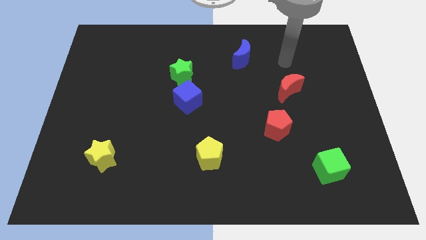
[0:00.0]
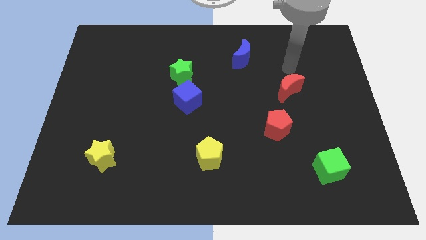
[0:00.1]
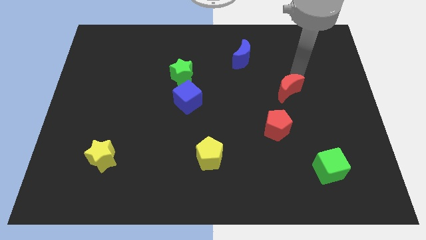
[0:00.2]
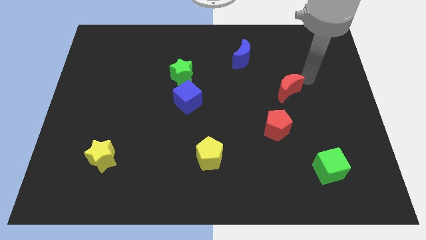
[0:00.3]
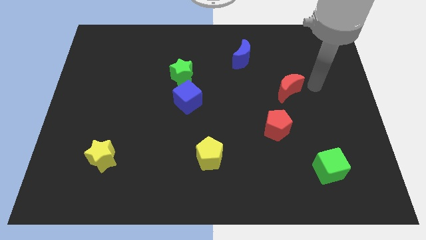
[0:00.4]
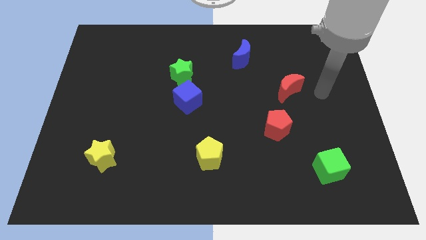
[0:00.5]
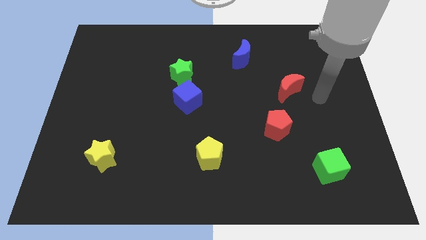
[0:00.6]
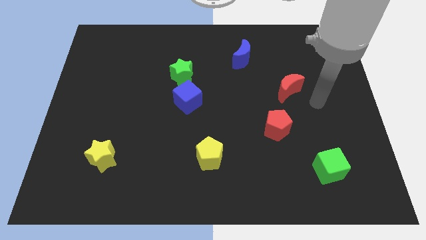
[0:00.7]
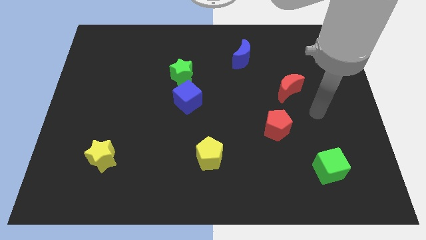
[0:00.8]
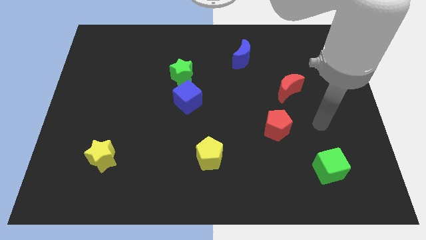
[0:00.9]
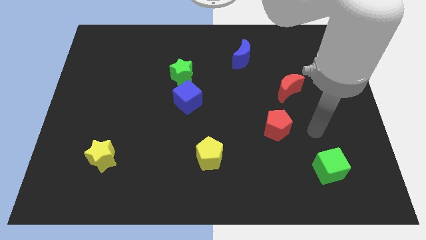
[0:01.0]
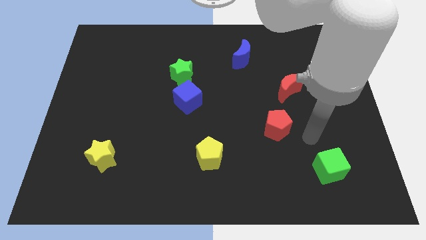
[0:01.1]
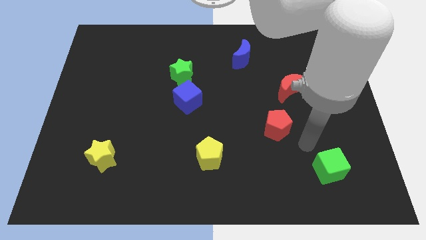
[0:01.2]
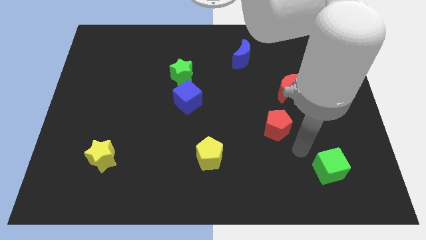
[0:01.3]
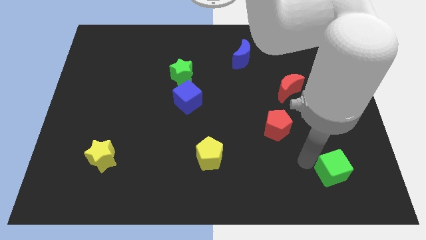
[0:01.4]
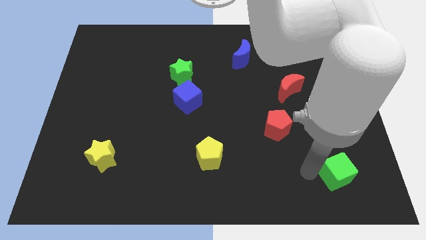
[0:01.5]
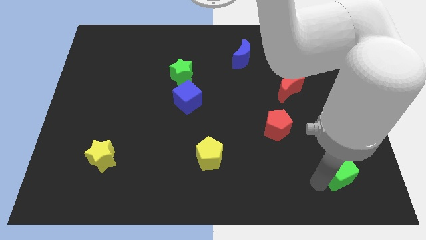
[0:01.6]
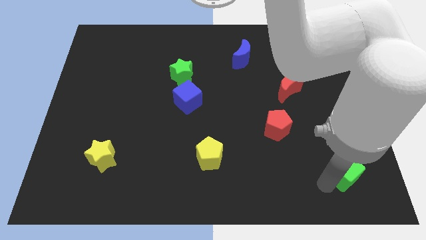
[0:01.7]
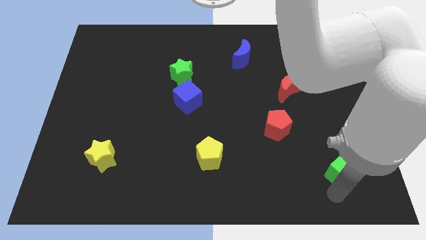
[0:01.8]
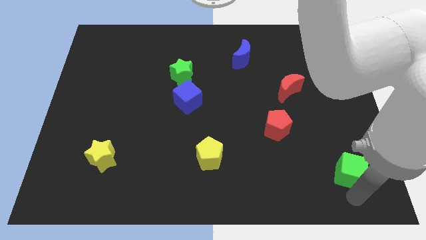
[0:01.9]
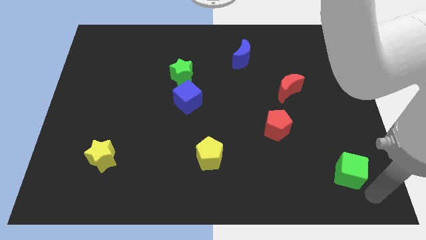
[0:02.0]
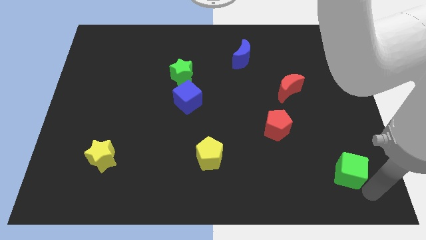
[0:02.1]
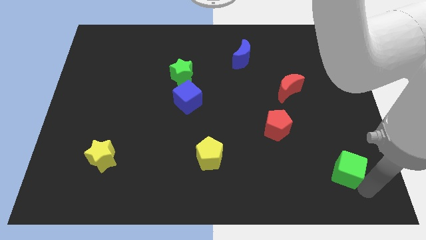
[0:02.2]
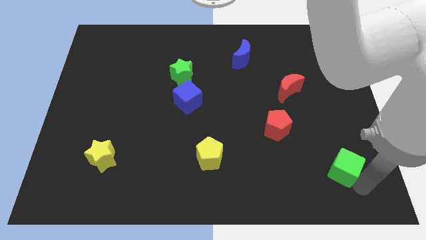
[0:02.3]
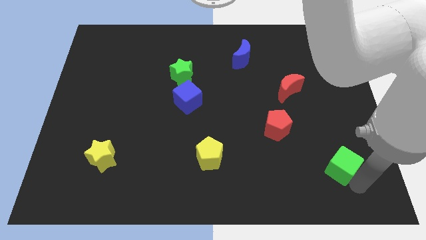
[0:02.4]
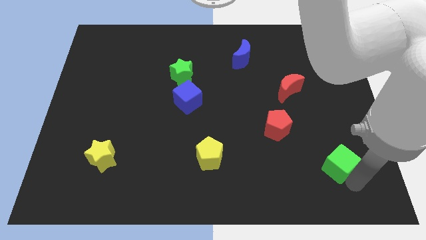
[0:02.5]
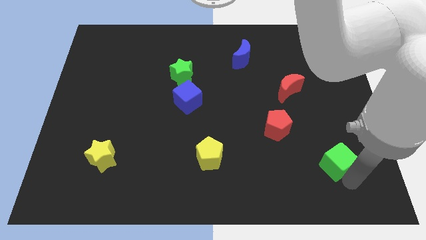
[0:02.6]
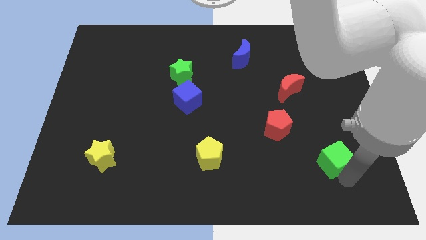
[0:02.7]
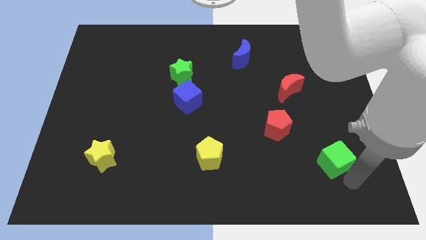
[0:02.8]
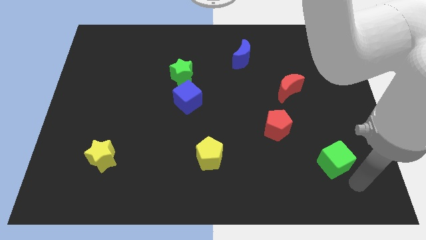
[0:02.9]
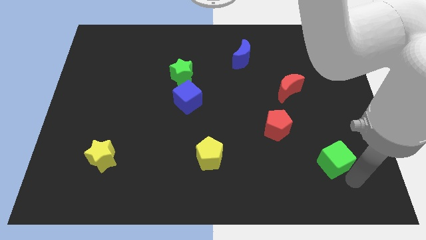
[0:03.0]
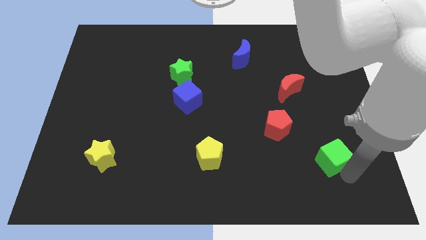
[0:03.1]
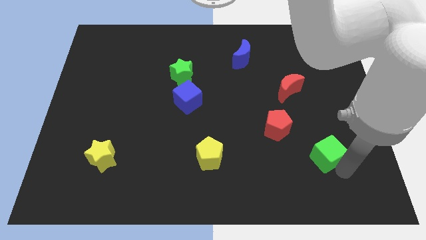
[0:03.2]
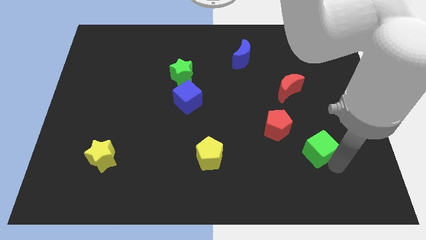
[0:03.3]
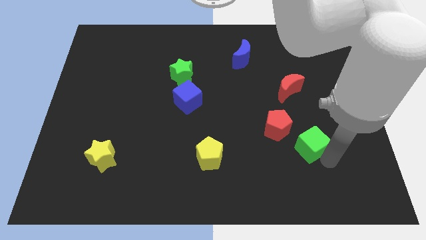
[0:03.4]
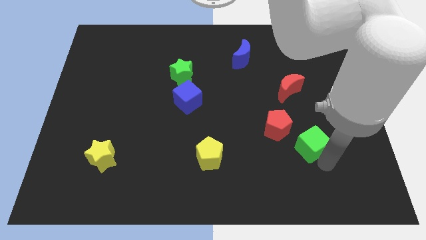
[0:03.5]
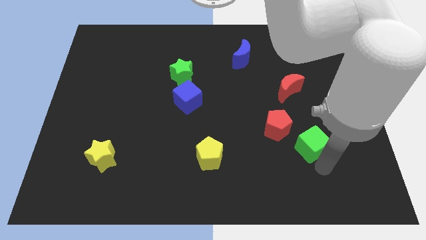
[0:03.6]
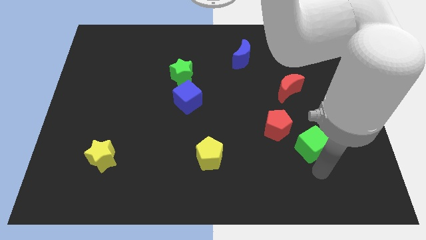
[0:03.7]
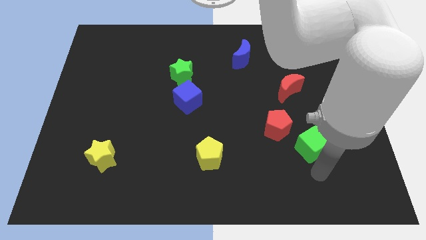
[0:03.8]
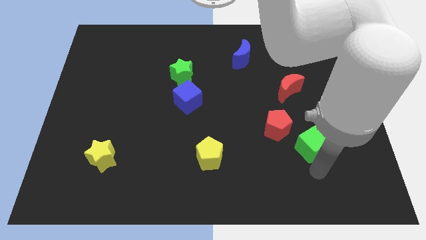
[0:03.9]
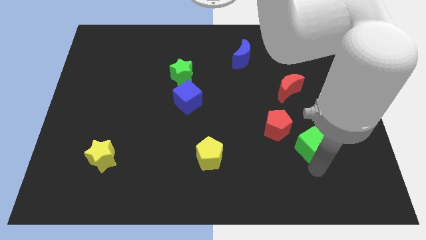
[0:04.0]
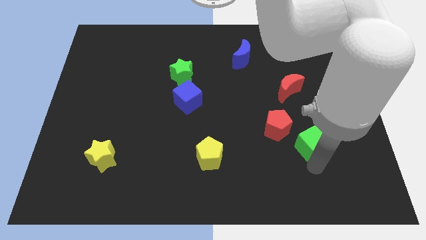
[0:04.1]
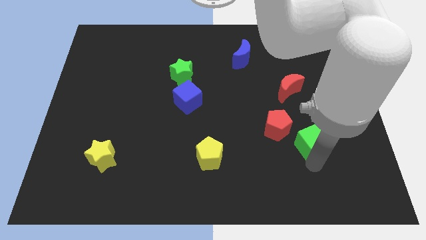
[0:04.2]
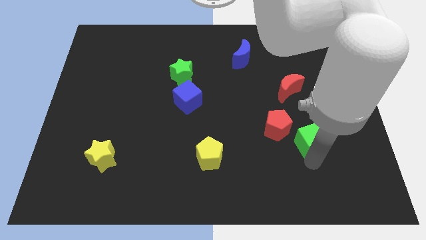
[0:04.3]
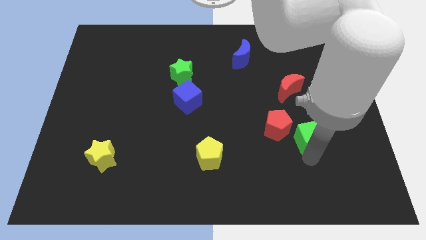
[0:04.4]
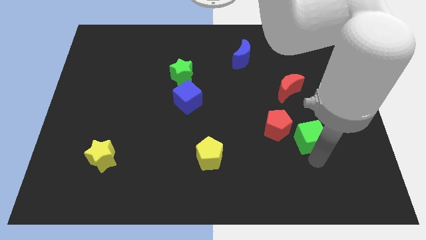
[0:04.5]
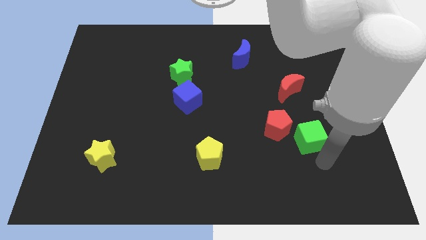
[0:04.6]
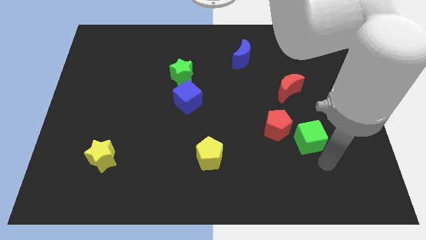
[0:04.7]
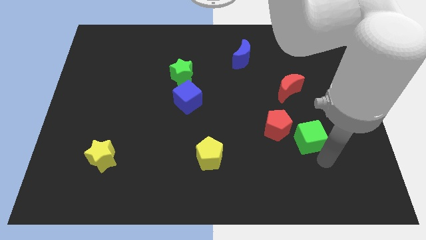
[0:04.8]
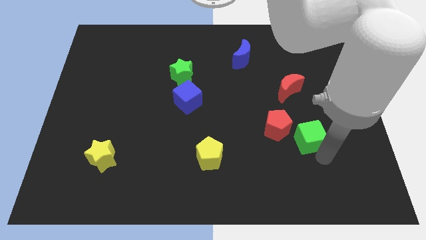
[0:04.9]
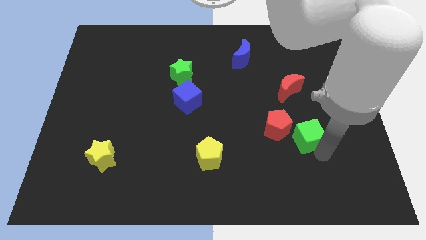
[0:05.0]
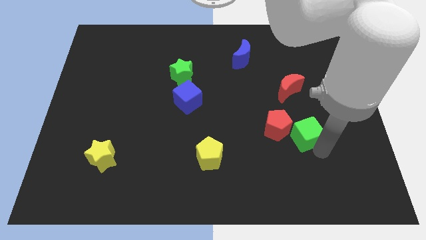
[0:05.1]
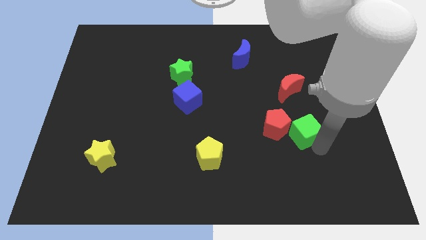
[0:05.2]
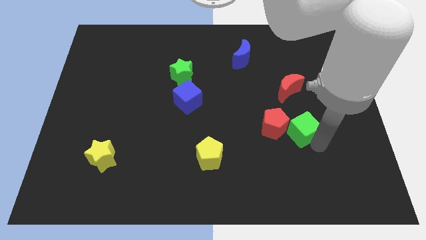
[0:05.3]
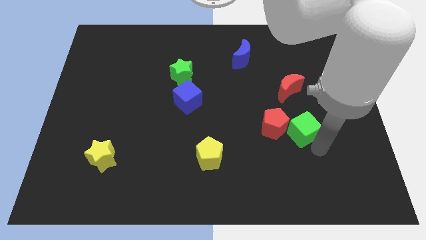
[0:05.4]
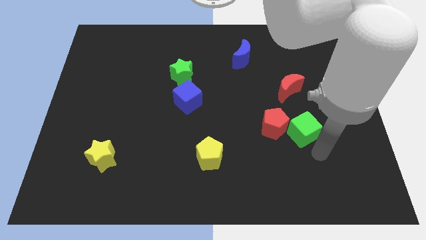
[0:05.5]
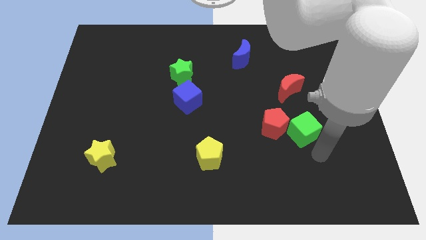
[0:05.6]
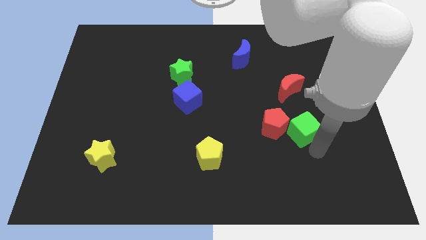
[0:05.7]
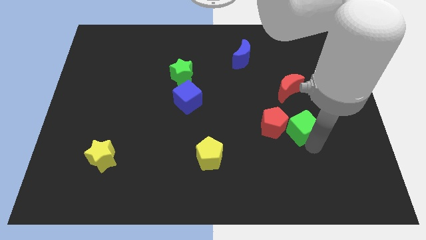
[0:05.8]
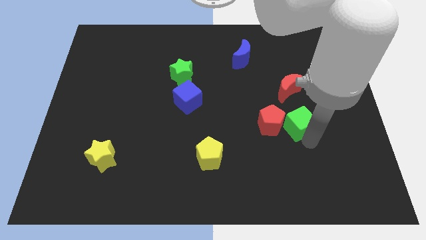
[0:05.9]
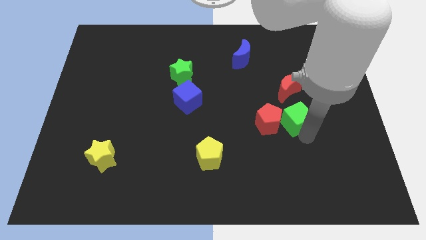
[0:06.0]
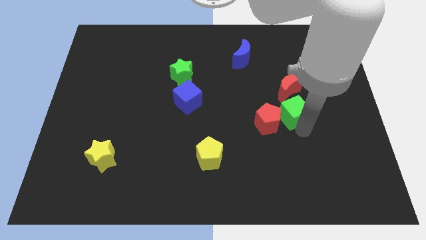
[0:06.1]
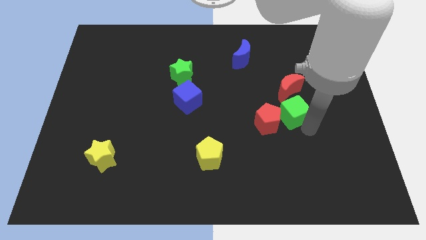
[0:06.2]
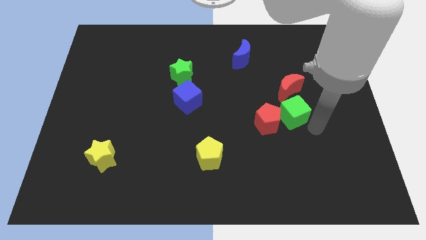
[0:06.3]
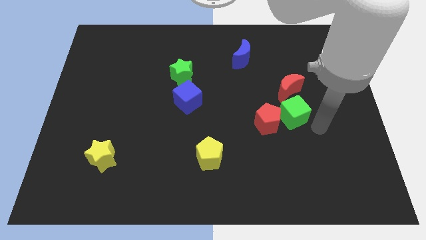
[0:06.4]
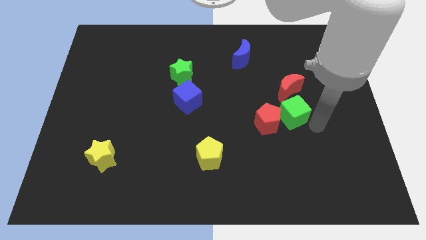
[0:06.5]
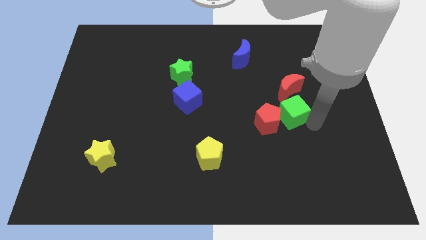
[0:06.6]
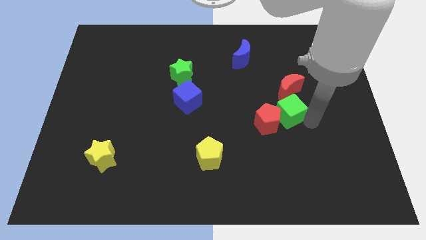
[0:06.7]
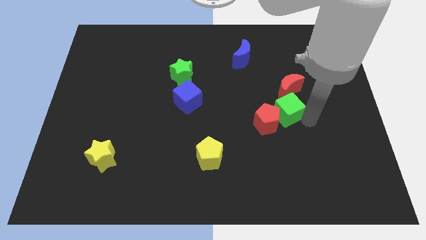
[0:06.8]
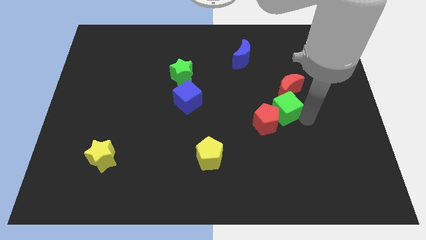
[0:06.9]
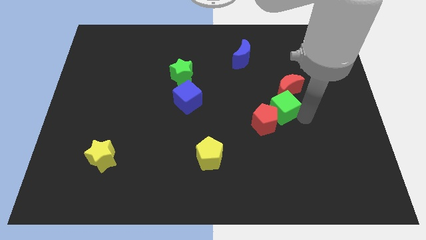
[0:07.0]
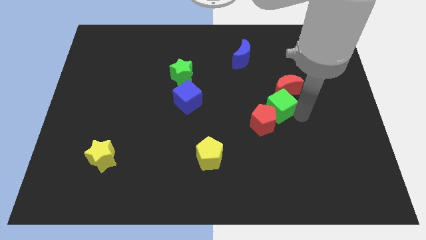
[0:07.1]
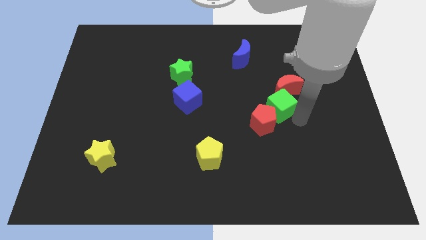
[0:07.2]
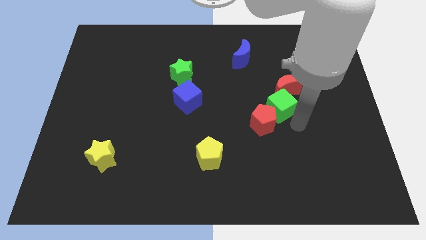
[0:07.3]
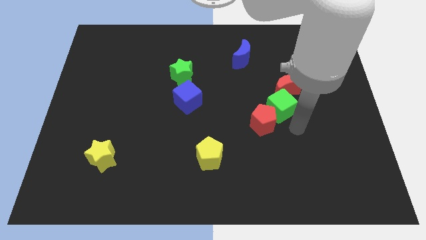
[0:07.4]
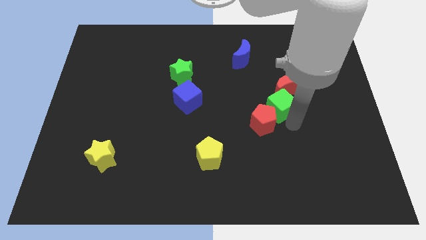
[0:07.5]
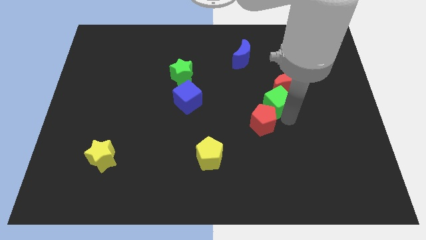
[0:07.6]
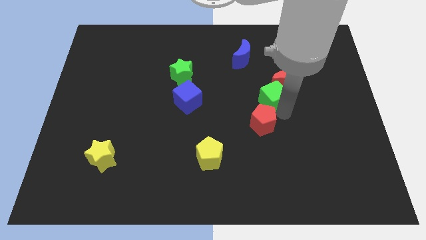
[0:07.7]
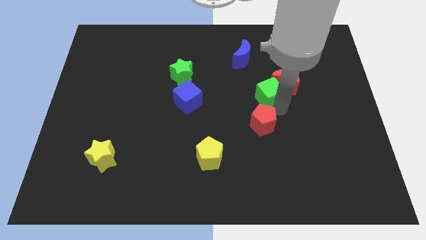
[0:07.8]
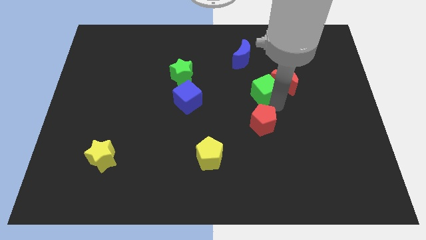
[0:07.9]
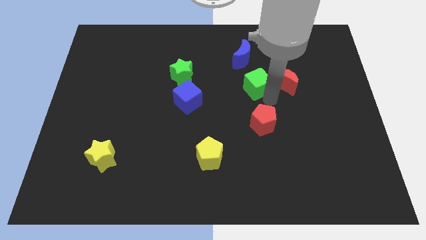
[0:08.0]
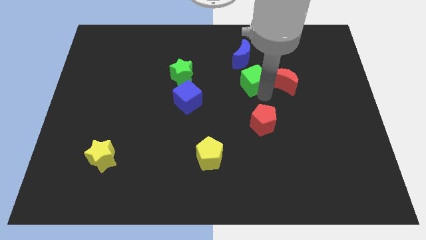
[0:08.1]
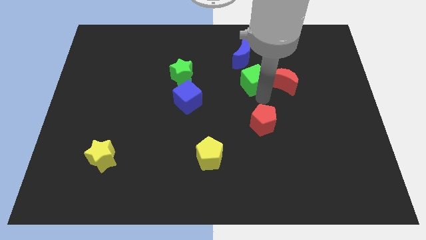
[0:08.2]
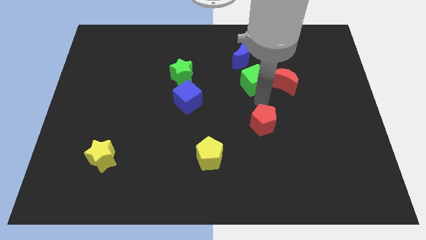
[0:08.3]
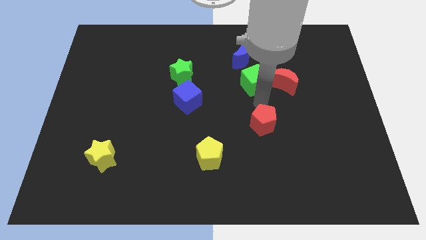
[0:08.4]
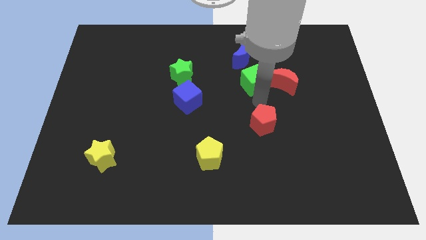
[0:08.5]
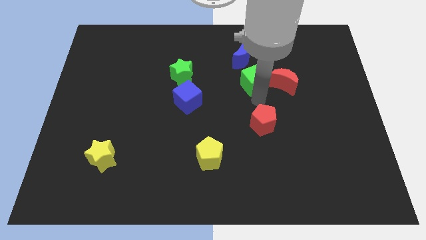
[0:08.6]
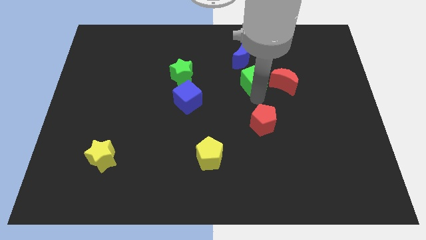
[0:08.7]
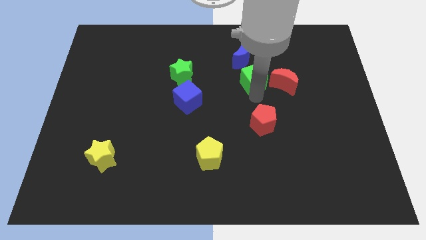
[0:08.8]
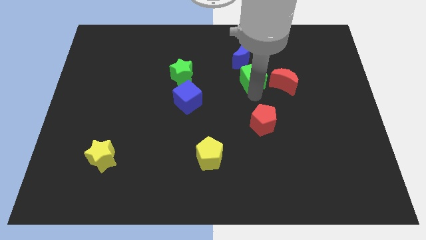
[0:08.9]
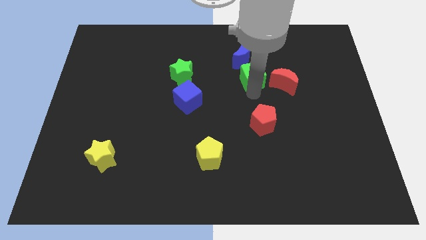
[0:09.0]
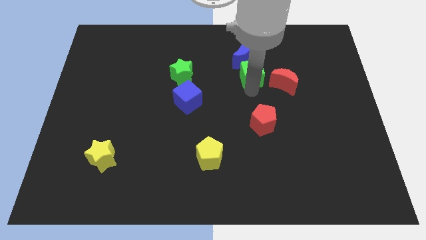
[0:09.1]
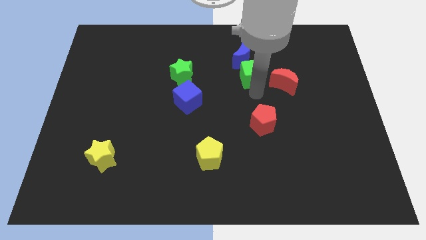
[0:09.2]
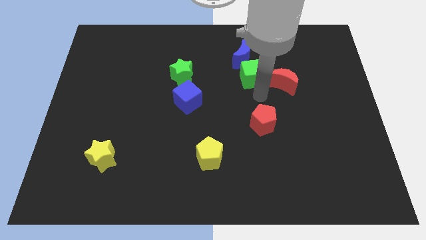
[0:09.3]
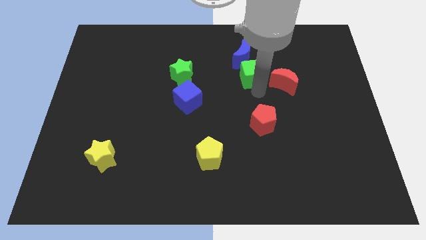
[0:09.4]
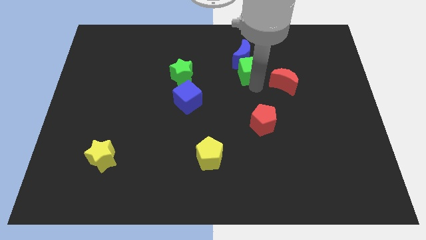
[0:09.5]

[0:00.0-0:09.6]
push the green cube close to the blue moon
